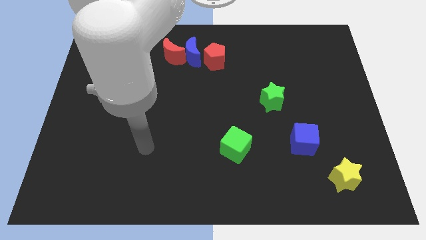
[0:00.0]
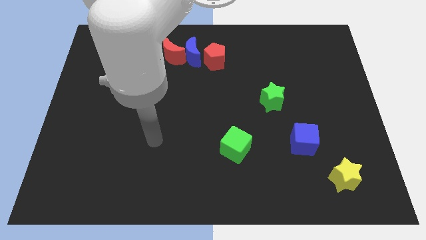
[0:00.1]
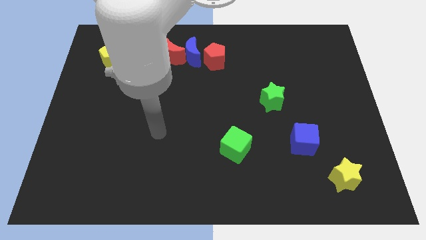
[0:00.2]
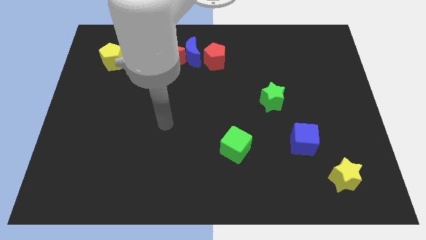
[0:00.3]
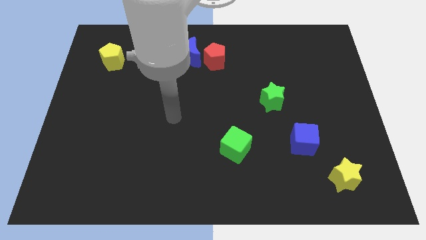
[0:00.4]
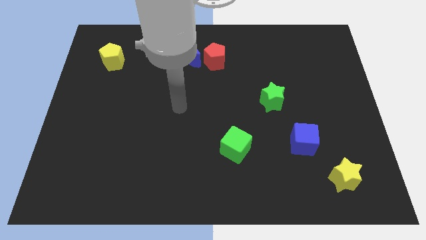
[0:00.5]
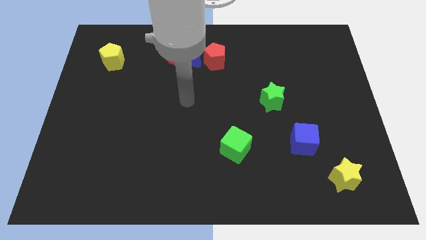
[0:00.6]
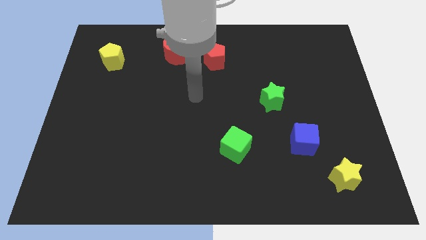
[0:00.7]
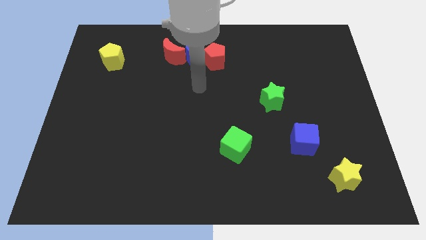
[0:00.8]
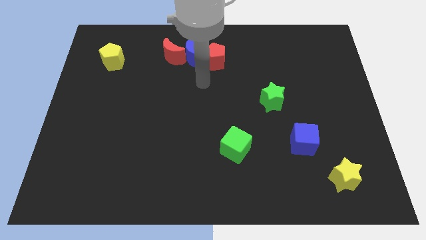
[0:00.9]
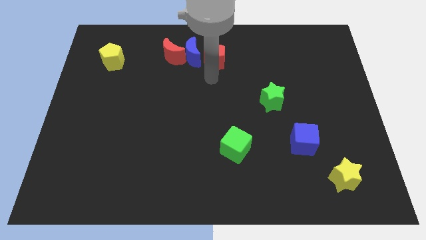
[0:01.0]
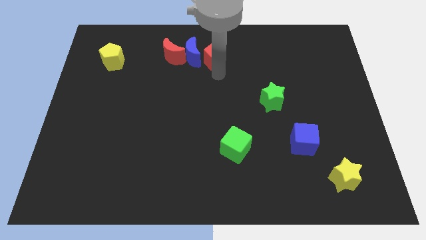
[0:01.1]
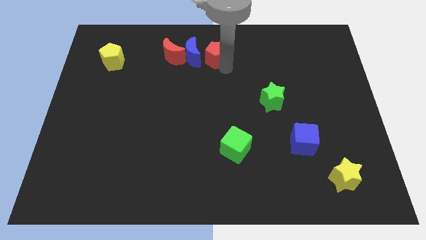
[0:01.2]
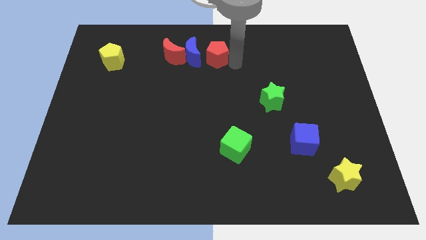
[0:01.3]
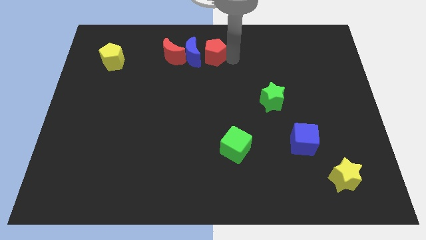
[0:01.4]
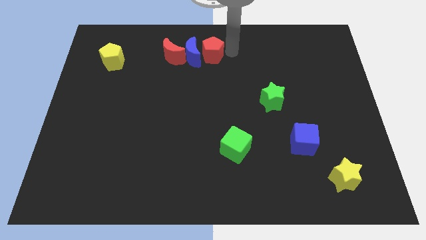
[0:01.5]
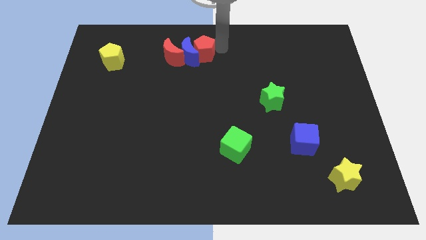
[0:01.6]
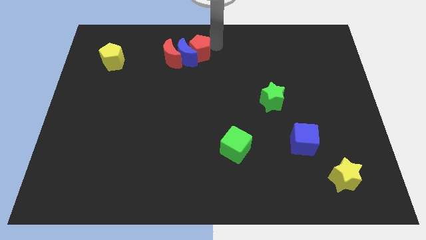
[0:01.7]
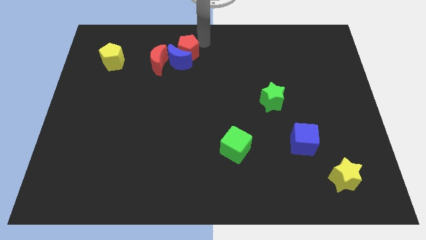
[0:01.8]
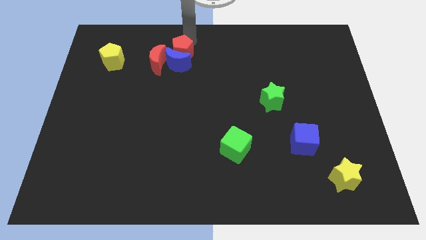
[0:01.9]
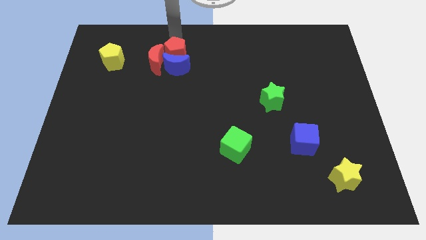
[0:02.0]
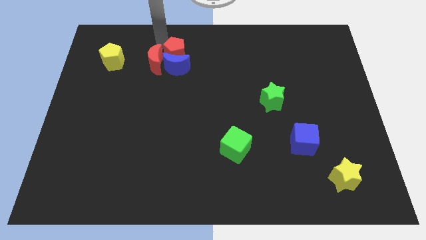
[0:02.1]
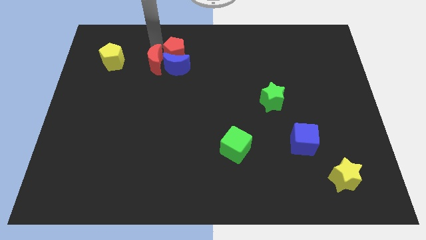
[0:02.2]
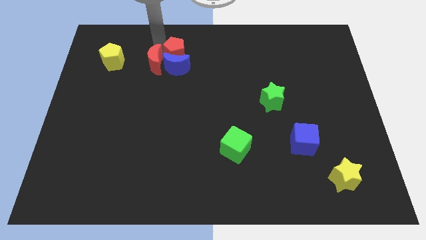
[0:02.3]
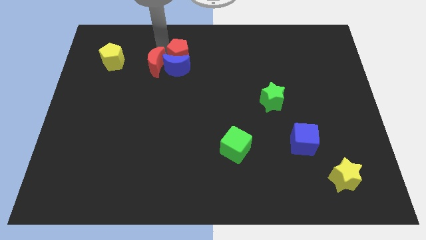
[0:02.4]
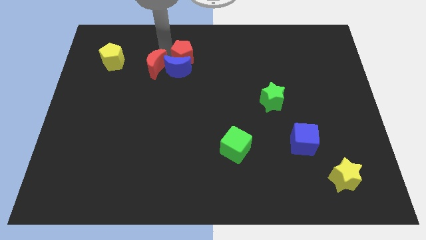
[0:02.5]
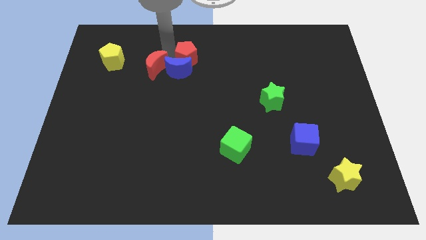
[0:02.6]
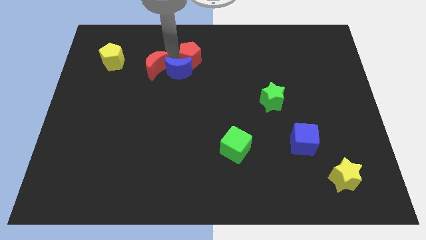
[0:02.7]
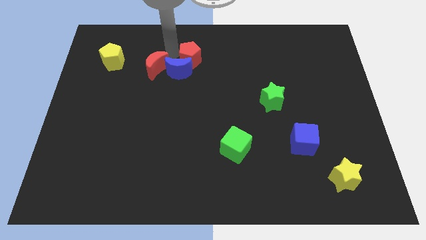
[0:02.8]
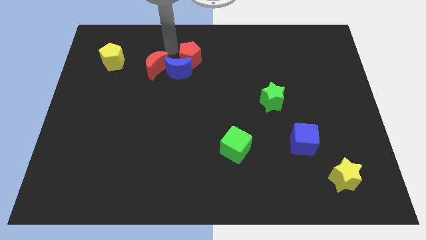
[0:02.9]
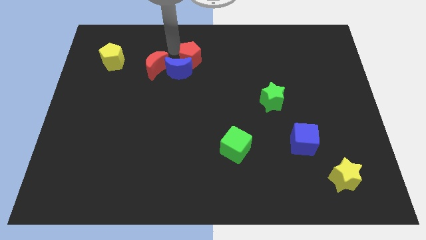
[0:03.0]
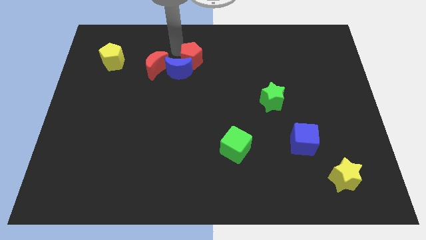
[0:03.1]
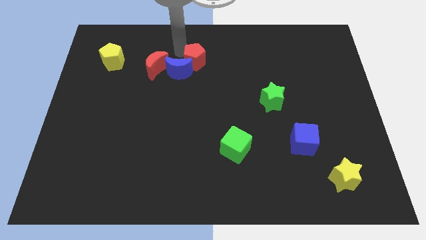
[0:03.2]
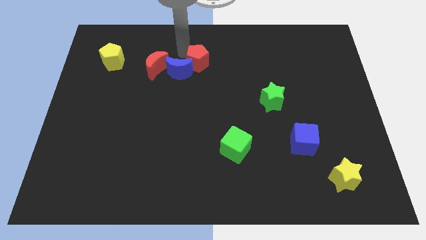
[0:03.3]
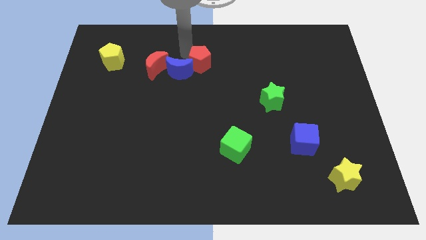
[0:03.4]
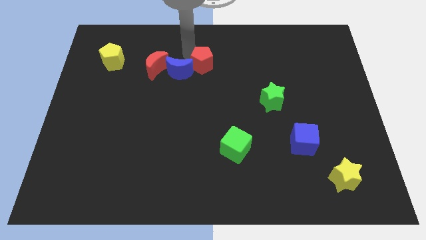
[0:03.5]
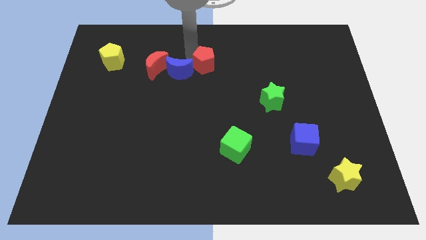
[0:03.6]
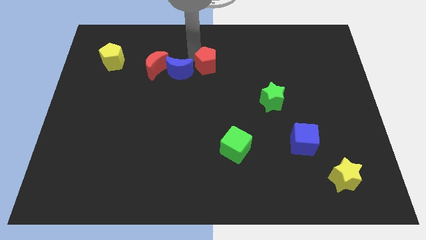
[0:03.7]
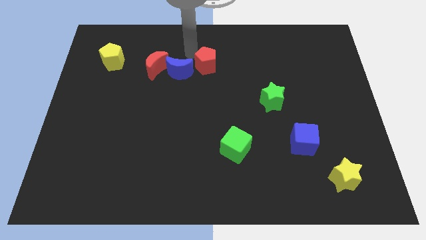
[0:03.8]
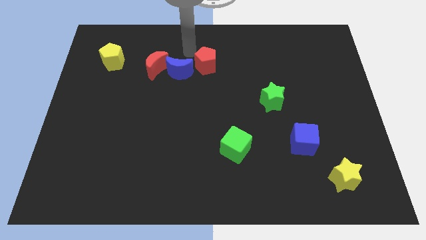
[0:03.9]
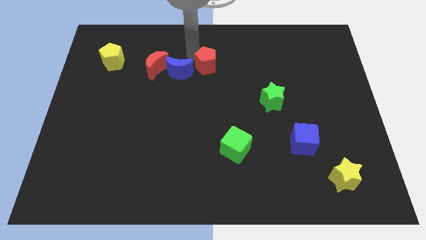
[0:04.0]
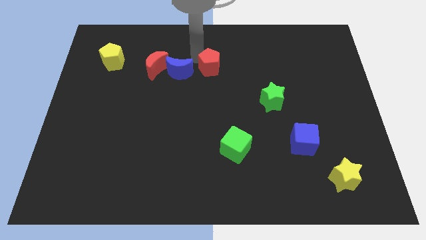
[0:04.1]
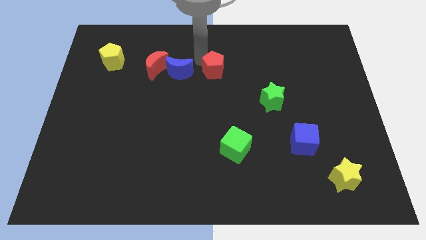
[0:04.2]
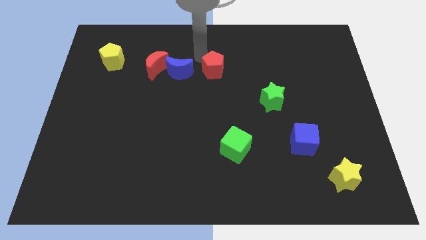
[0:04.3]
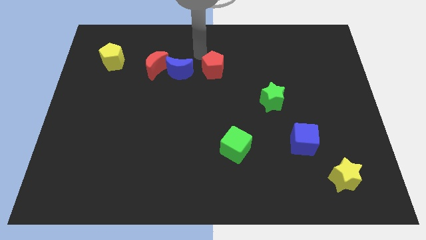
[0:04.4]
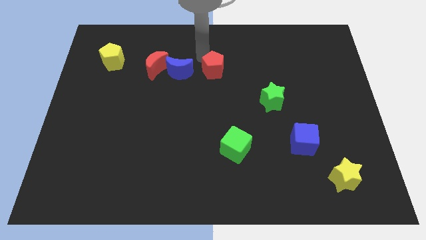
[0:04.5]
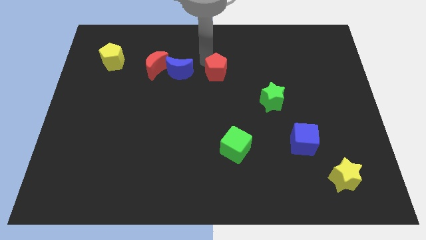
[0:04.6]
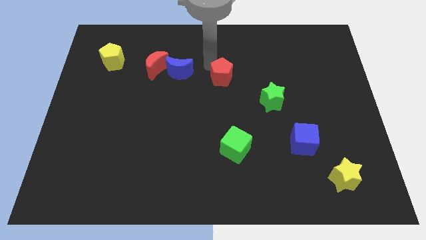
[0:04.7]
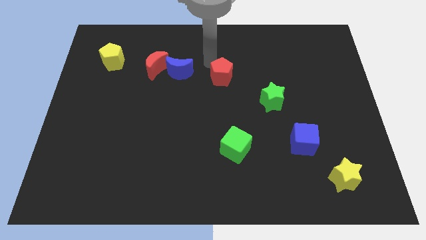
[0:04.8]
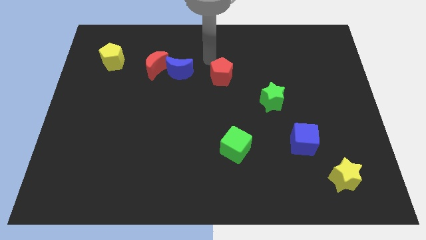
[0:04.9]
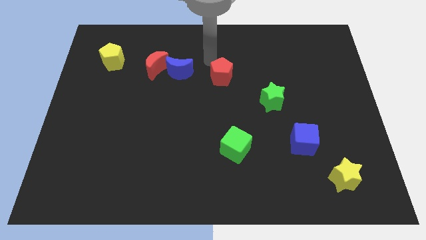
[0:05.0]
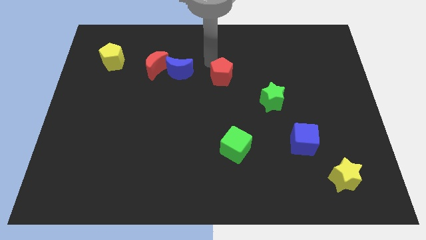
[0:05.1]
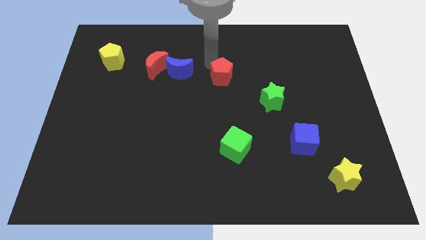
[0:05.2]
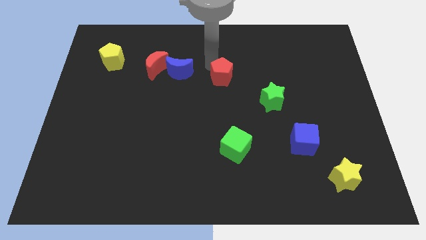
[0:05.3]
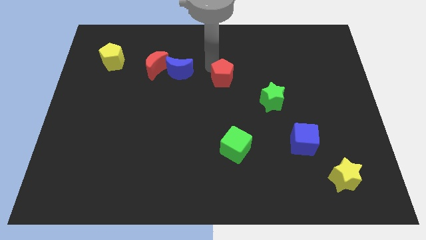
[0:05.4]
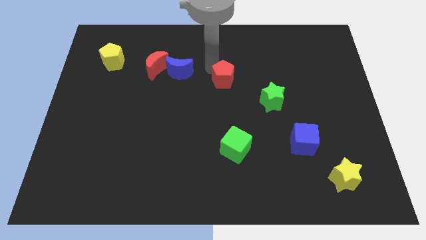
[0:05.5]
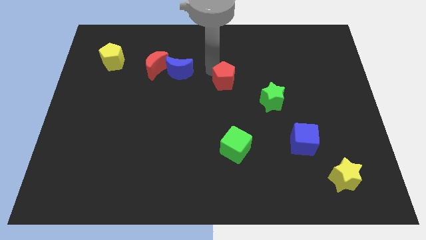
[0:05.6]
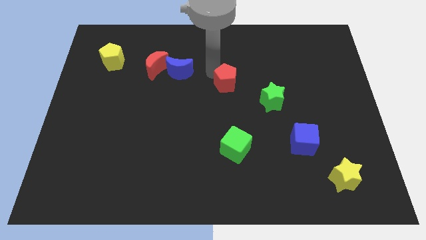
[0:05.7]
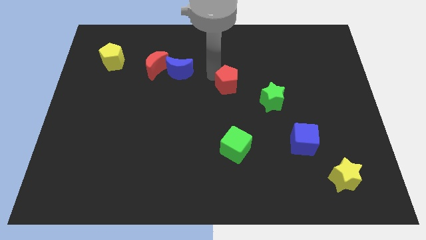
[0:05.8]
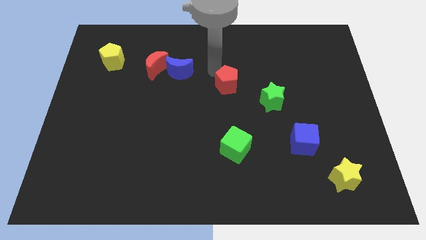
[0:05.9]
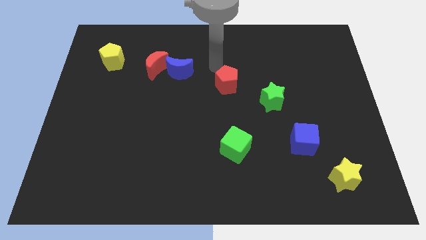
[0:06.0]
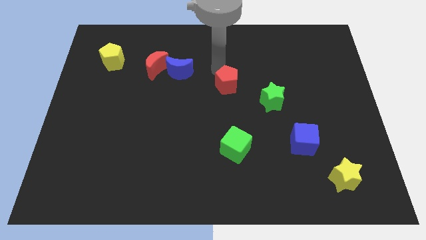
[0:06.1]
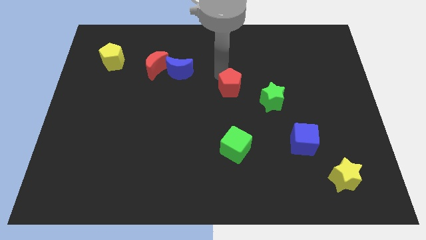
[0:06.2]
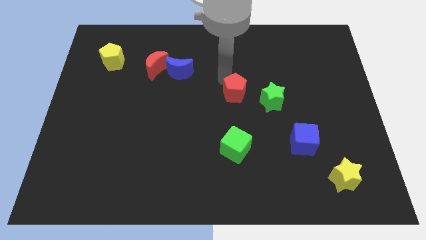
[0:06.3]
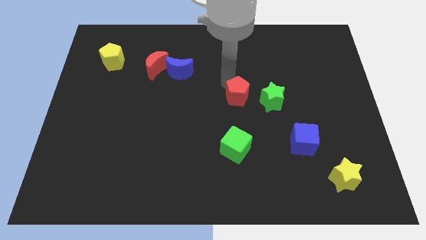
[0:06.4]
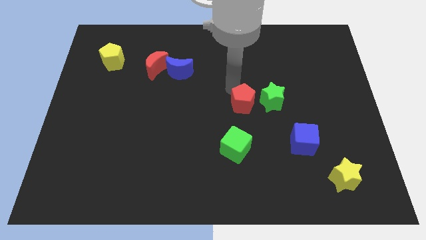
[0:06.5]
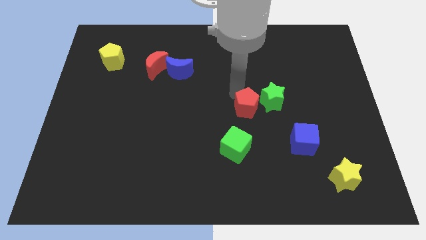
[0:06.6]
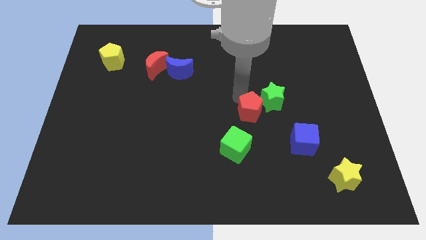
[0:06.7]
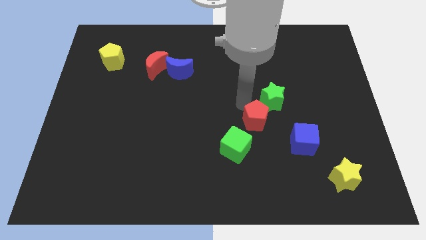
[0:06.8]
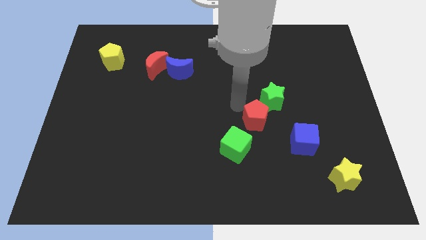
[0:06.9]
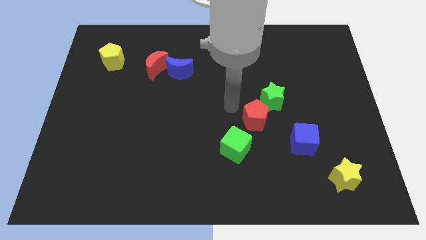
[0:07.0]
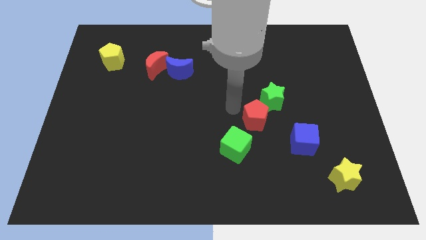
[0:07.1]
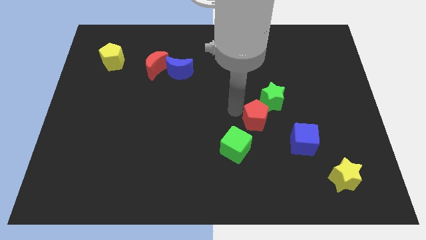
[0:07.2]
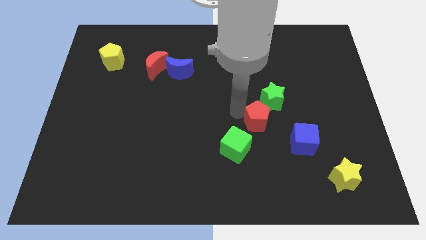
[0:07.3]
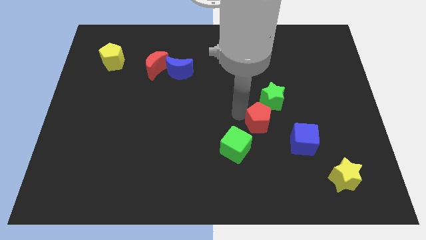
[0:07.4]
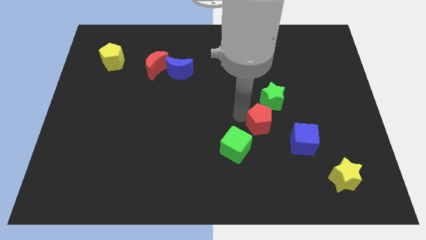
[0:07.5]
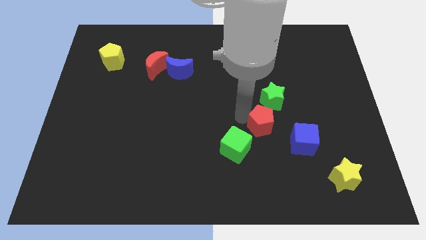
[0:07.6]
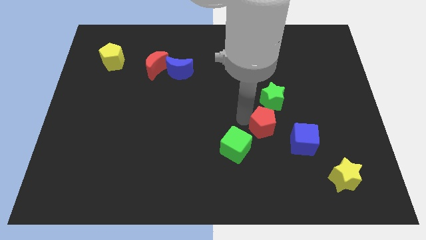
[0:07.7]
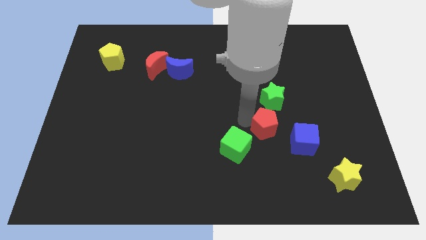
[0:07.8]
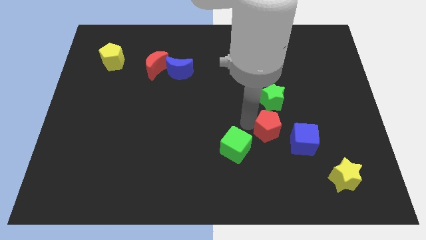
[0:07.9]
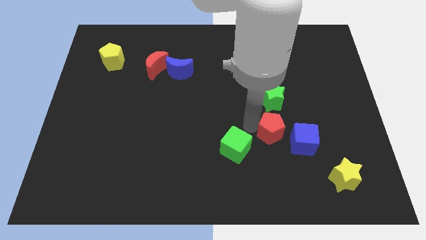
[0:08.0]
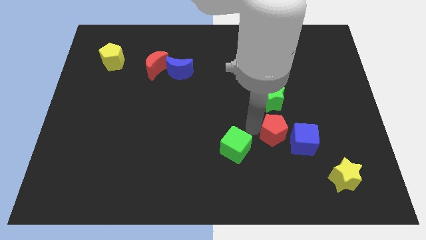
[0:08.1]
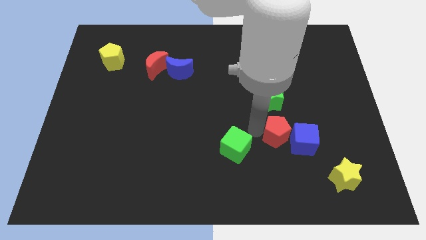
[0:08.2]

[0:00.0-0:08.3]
move the red pentagon next to the blue cube

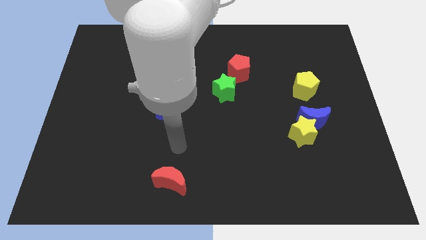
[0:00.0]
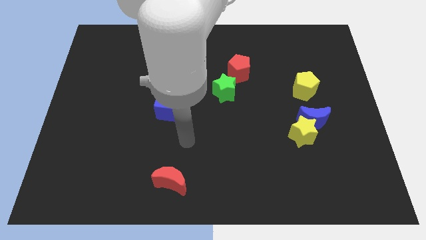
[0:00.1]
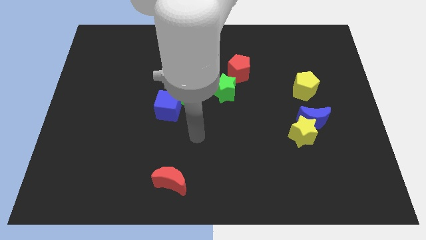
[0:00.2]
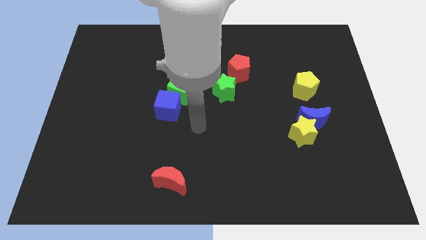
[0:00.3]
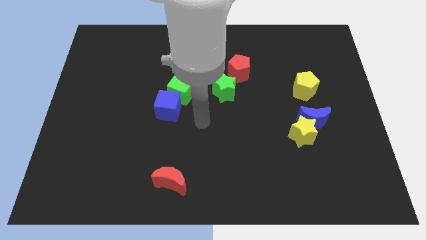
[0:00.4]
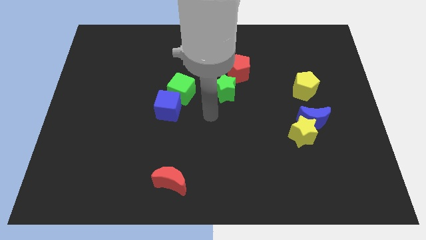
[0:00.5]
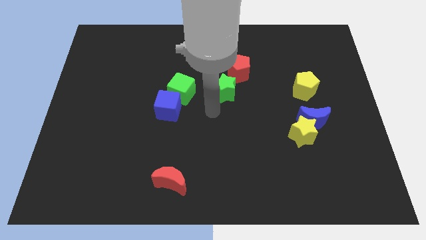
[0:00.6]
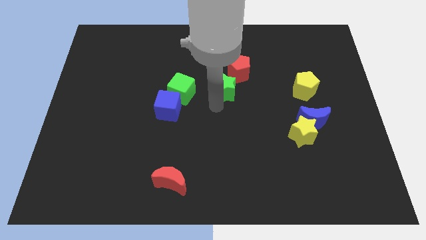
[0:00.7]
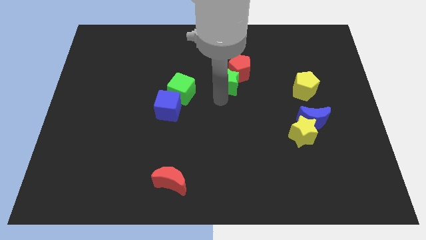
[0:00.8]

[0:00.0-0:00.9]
push the green star next to the red pentagon
